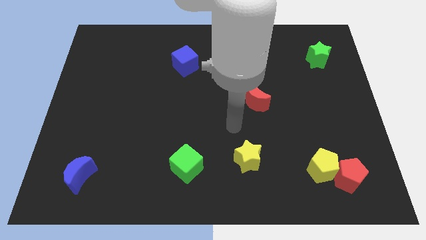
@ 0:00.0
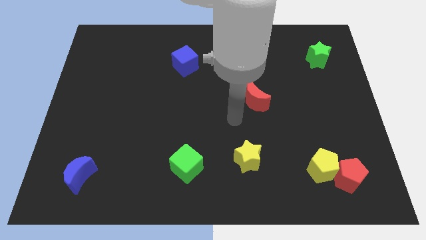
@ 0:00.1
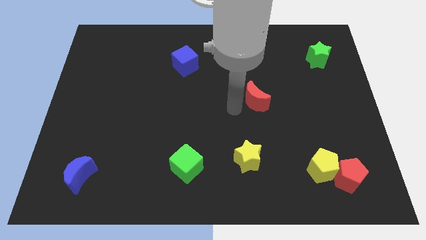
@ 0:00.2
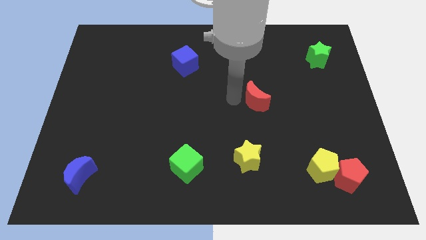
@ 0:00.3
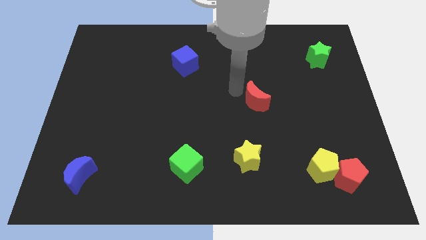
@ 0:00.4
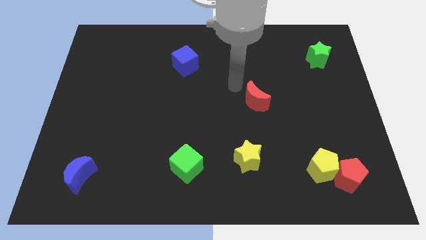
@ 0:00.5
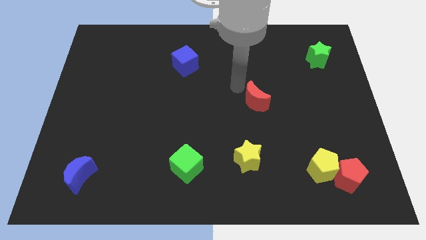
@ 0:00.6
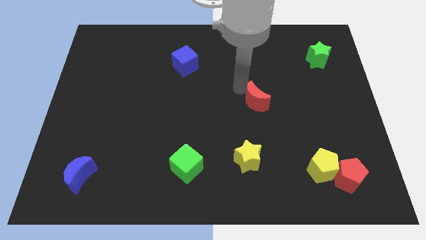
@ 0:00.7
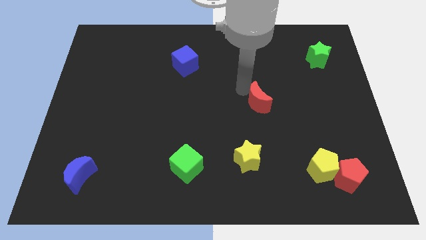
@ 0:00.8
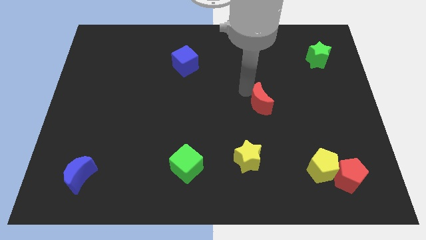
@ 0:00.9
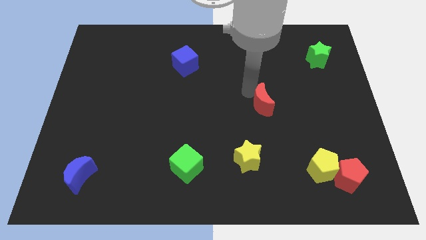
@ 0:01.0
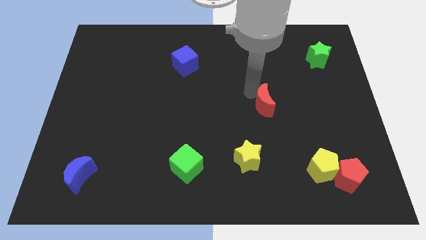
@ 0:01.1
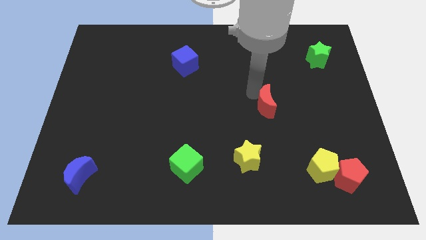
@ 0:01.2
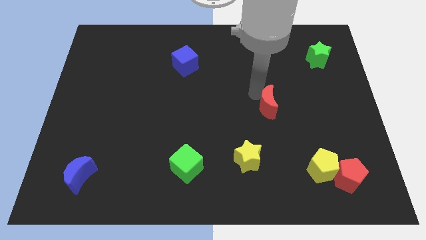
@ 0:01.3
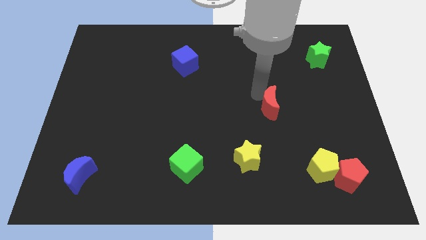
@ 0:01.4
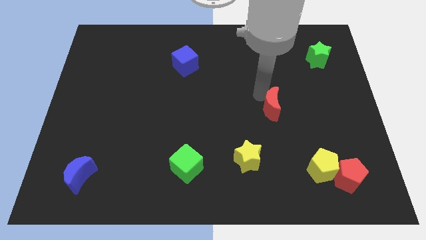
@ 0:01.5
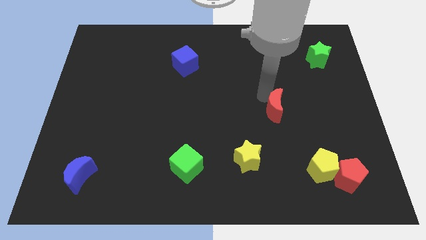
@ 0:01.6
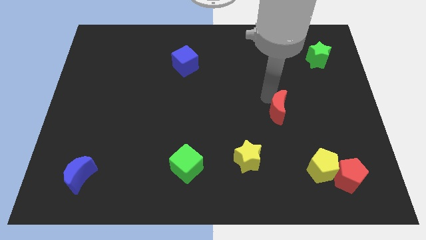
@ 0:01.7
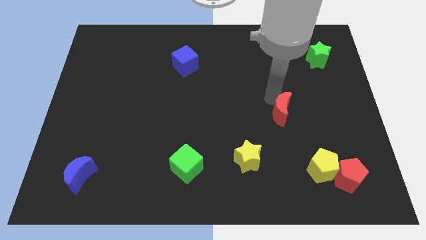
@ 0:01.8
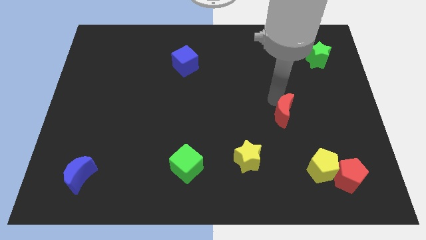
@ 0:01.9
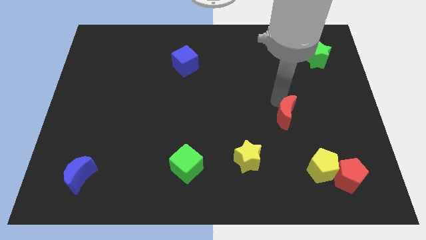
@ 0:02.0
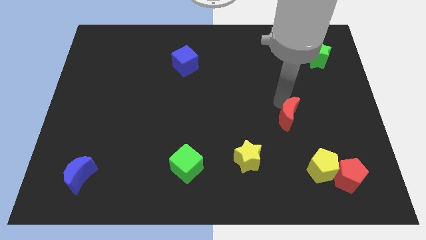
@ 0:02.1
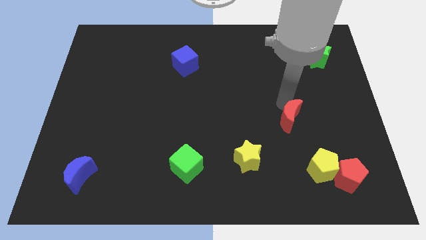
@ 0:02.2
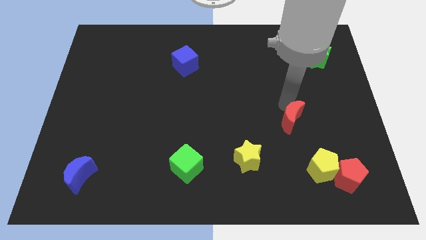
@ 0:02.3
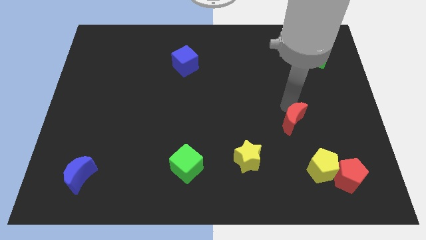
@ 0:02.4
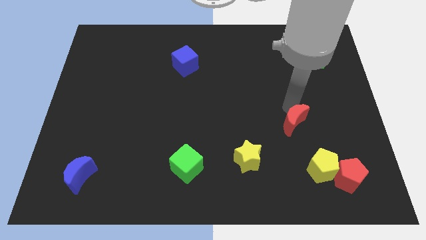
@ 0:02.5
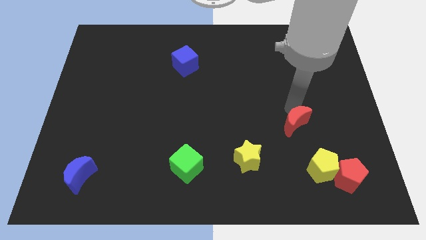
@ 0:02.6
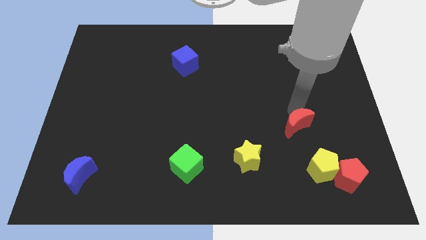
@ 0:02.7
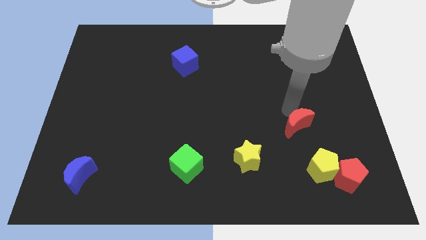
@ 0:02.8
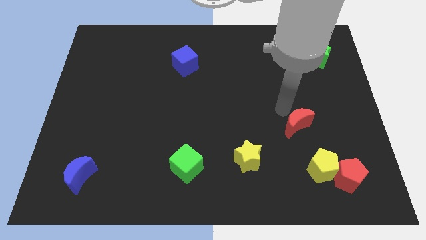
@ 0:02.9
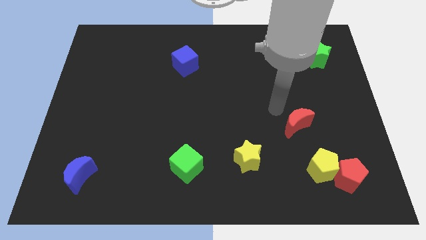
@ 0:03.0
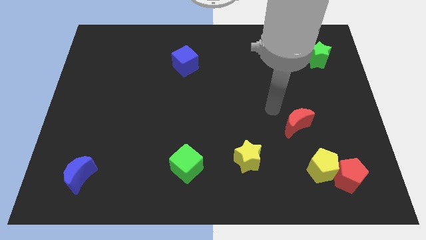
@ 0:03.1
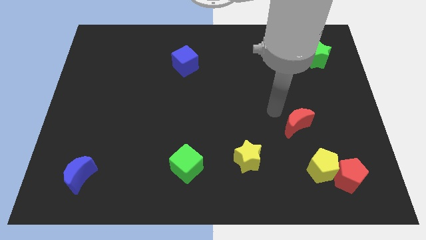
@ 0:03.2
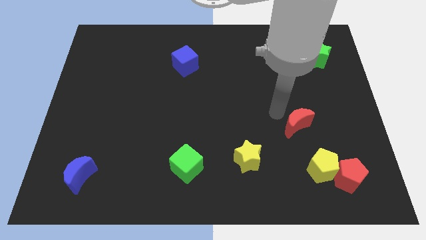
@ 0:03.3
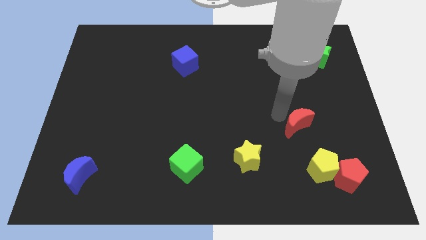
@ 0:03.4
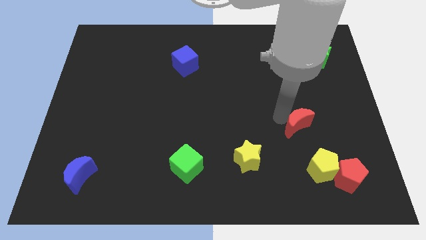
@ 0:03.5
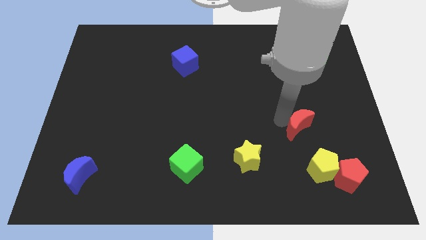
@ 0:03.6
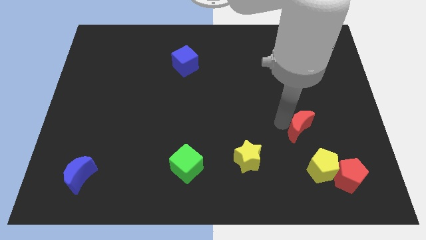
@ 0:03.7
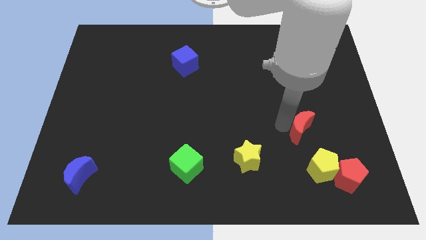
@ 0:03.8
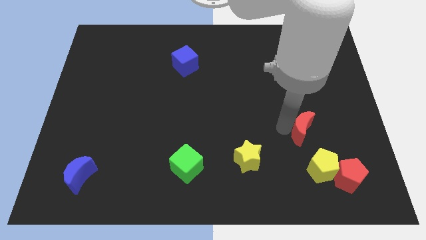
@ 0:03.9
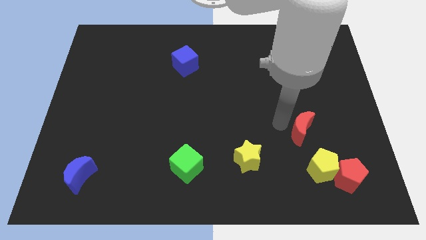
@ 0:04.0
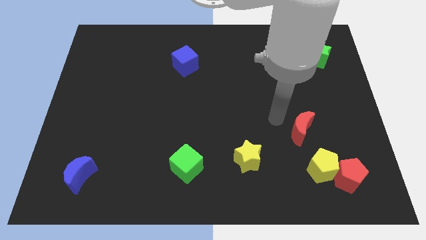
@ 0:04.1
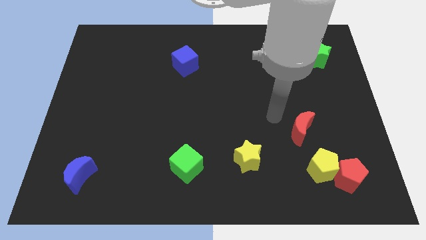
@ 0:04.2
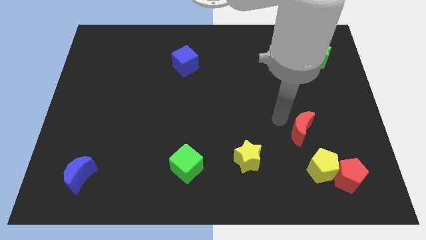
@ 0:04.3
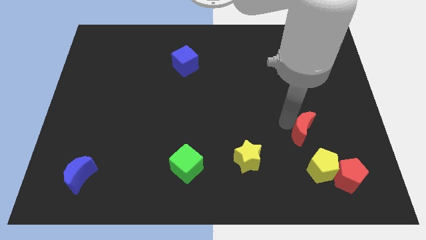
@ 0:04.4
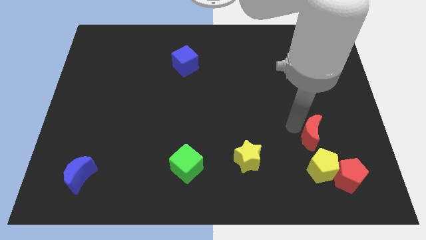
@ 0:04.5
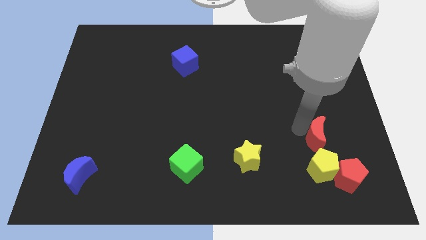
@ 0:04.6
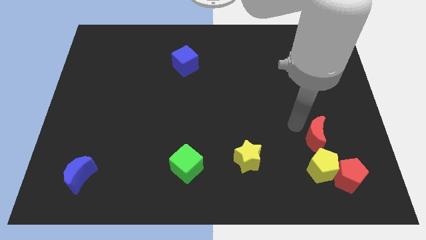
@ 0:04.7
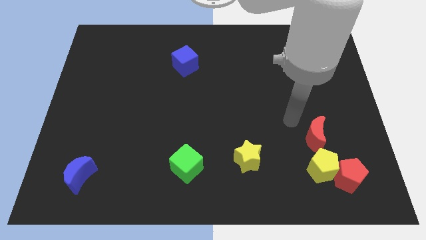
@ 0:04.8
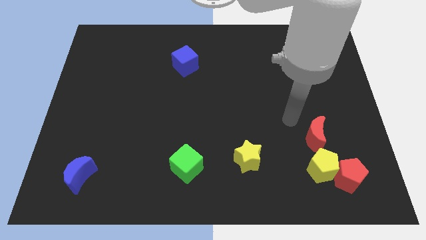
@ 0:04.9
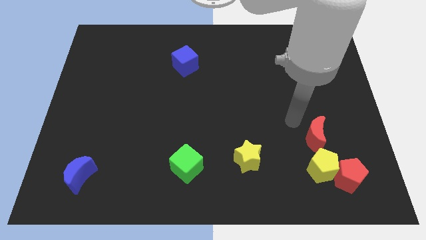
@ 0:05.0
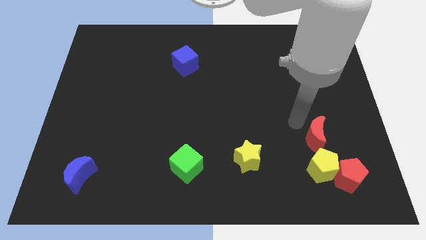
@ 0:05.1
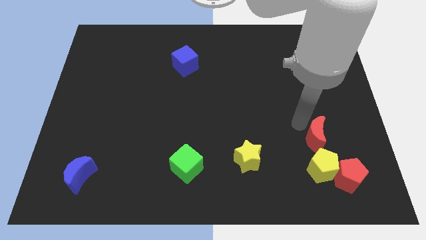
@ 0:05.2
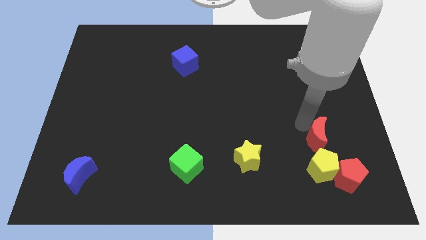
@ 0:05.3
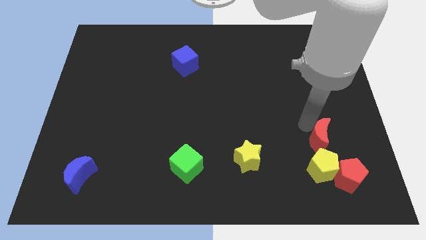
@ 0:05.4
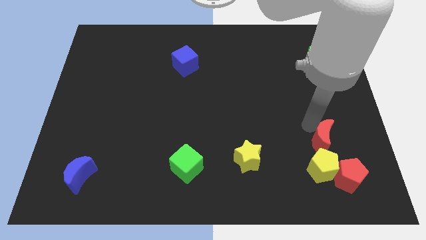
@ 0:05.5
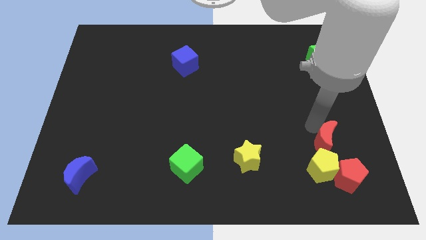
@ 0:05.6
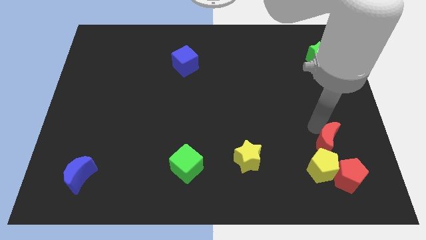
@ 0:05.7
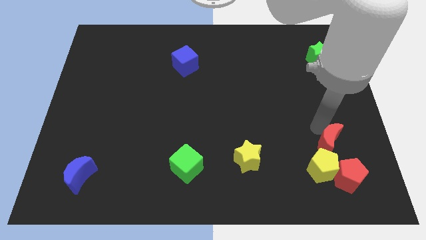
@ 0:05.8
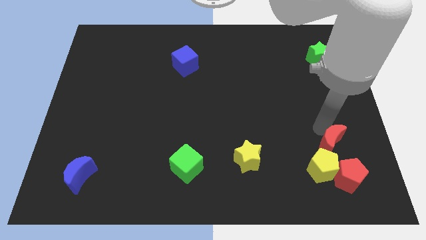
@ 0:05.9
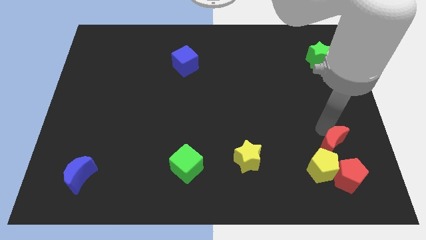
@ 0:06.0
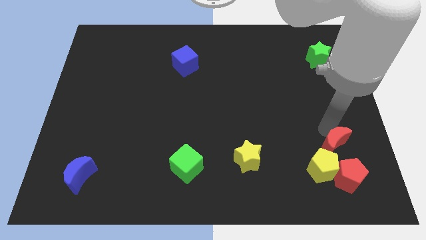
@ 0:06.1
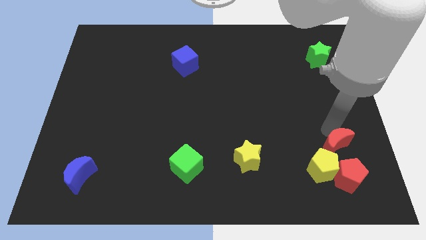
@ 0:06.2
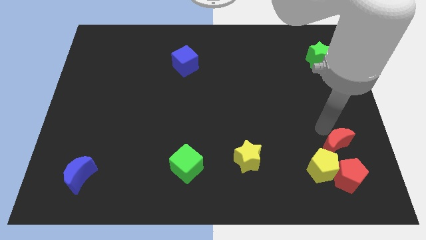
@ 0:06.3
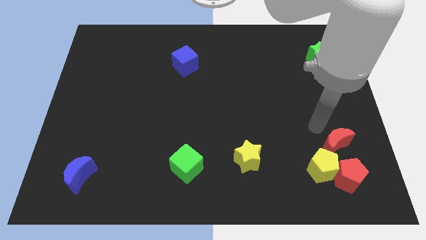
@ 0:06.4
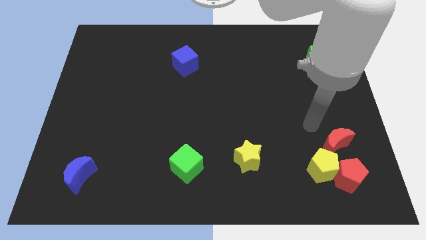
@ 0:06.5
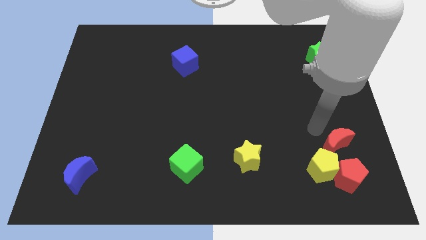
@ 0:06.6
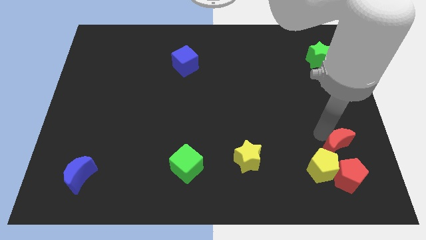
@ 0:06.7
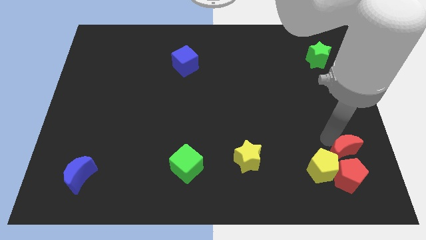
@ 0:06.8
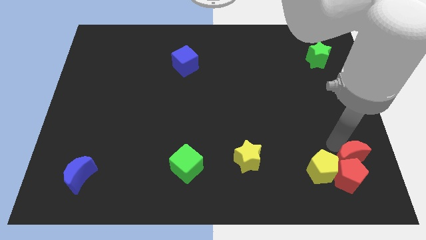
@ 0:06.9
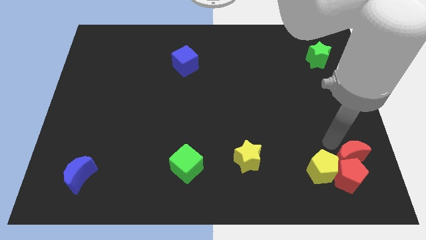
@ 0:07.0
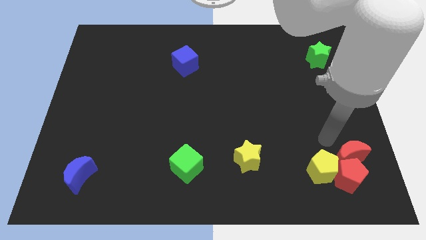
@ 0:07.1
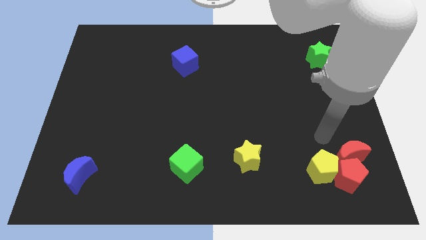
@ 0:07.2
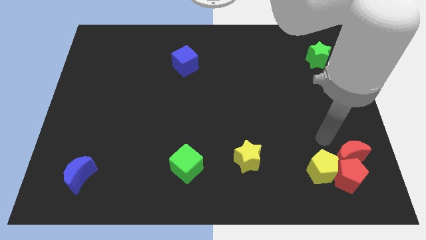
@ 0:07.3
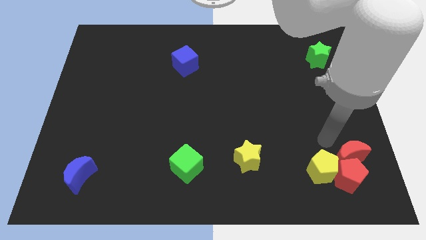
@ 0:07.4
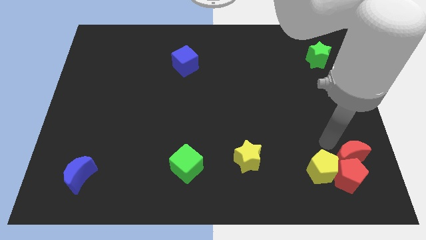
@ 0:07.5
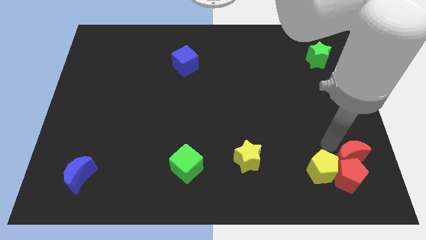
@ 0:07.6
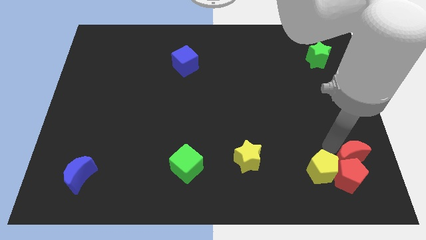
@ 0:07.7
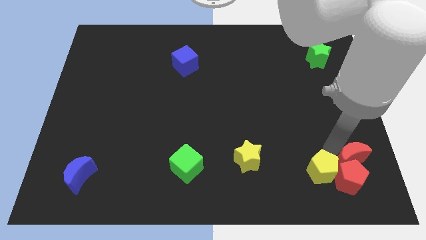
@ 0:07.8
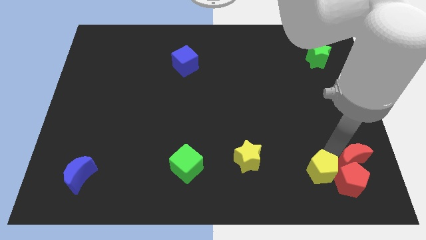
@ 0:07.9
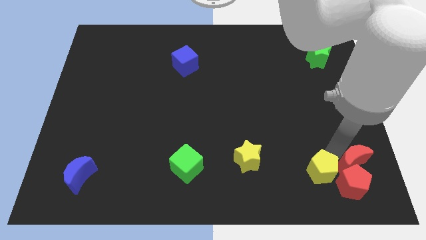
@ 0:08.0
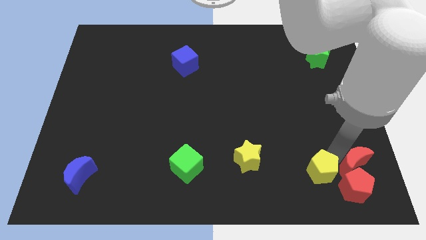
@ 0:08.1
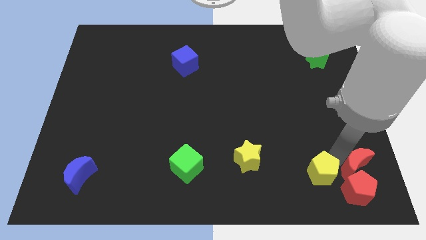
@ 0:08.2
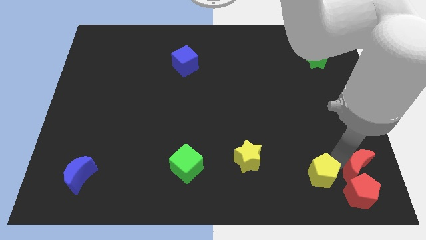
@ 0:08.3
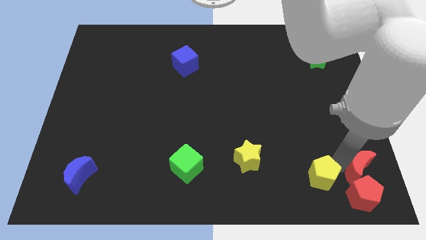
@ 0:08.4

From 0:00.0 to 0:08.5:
push the red moon to the bottom right
